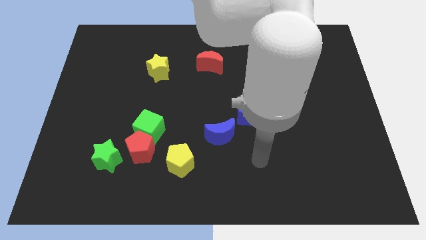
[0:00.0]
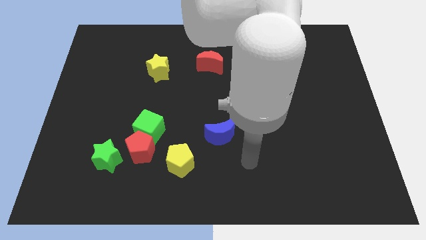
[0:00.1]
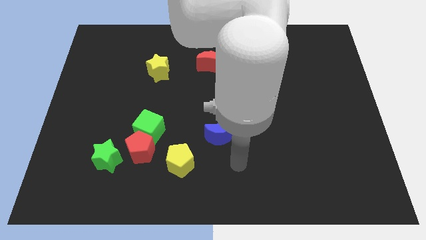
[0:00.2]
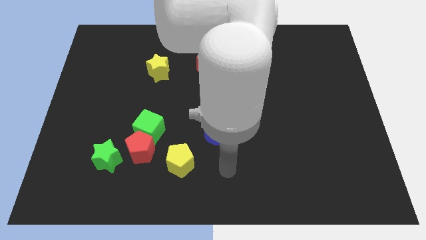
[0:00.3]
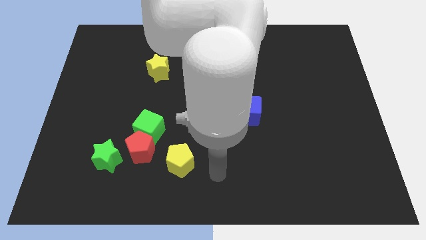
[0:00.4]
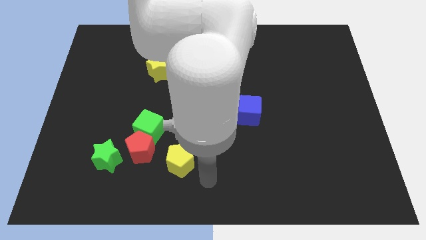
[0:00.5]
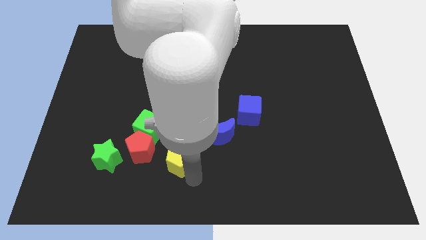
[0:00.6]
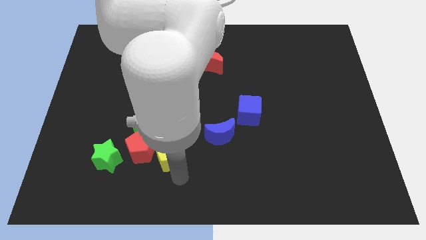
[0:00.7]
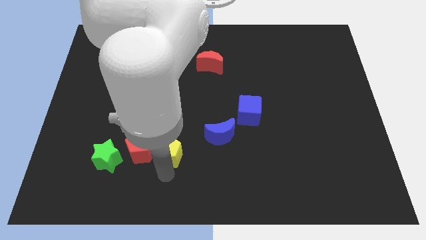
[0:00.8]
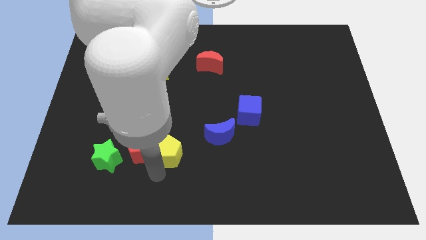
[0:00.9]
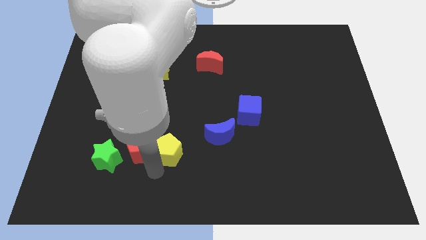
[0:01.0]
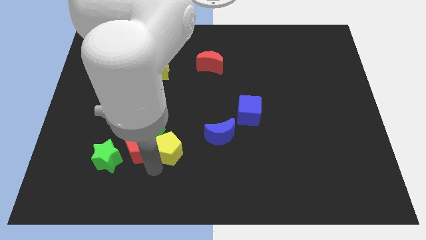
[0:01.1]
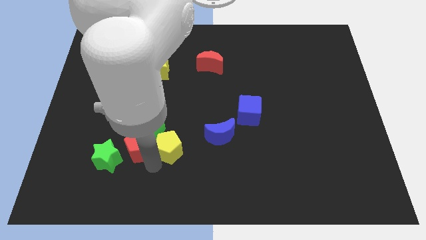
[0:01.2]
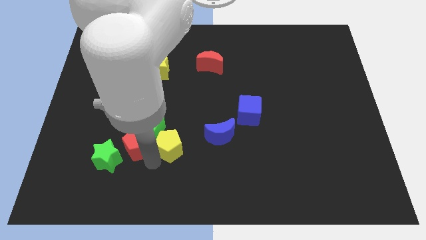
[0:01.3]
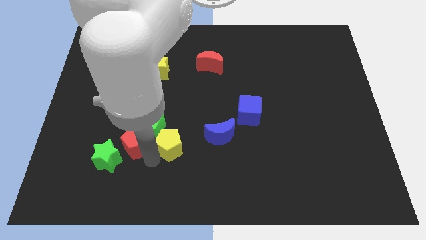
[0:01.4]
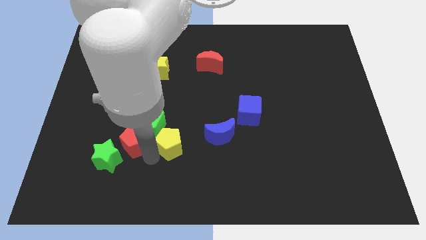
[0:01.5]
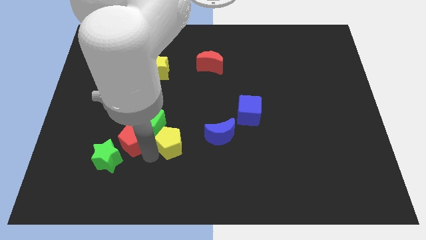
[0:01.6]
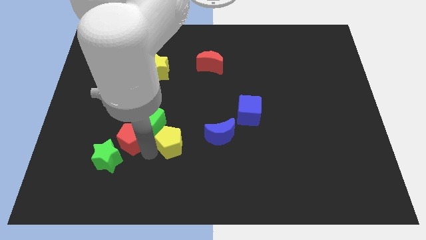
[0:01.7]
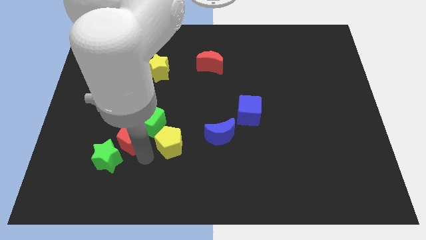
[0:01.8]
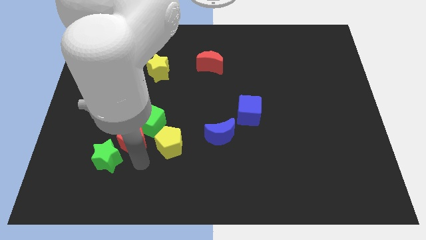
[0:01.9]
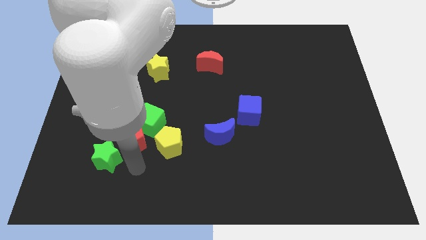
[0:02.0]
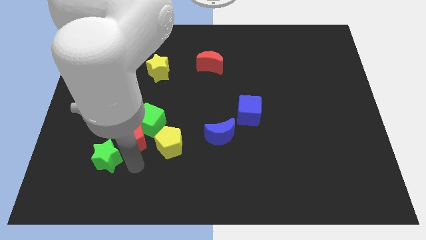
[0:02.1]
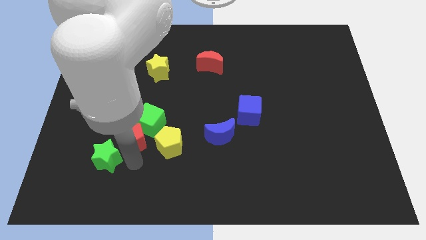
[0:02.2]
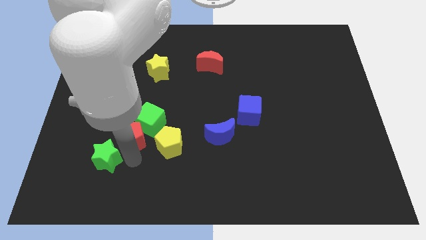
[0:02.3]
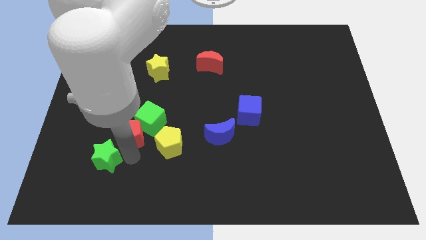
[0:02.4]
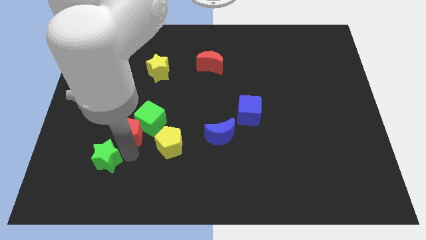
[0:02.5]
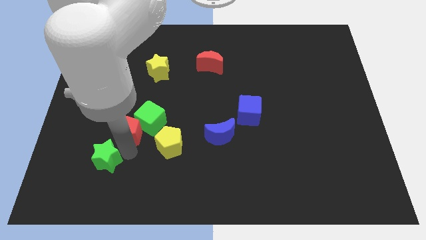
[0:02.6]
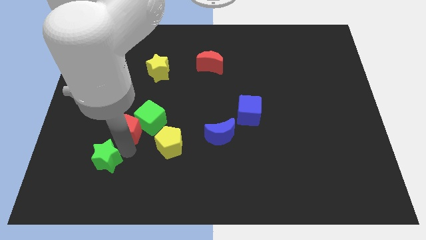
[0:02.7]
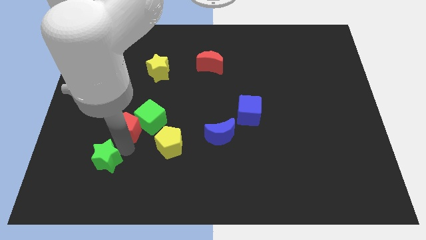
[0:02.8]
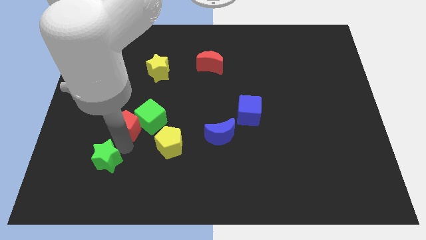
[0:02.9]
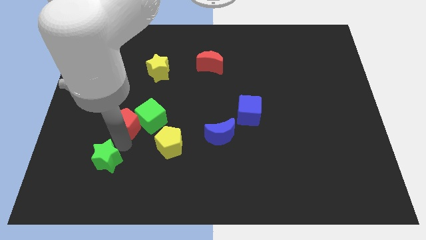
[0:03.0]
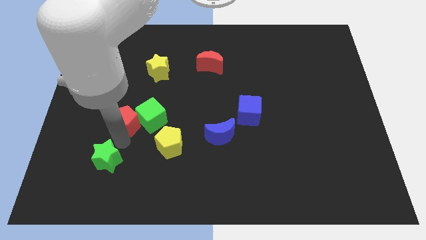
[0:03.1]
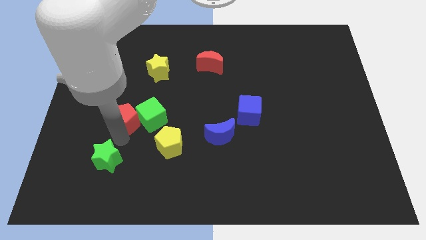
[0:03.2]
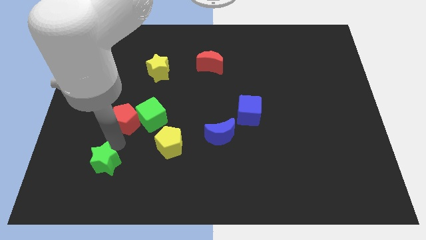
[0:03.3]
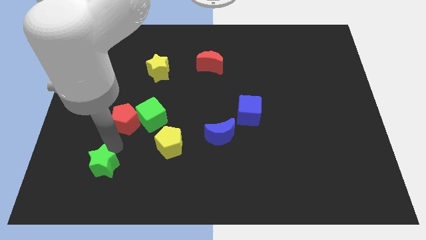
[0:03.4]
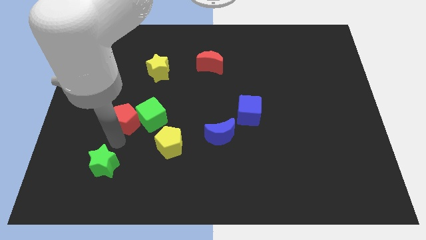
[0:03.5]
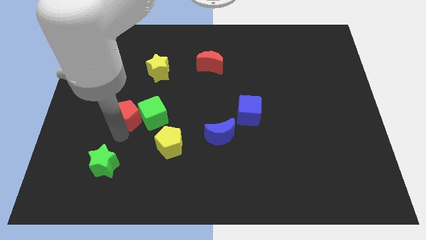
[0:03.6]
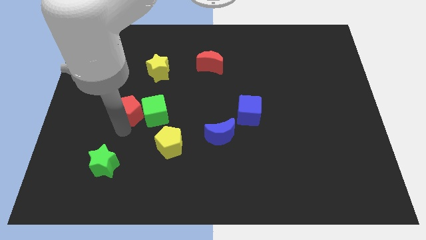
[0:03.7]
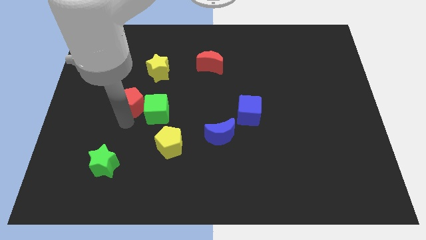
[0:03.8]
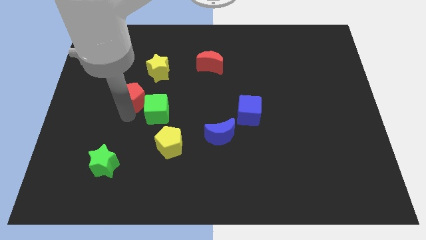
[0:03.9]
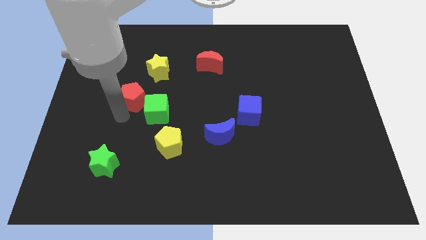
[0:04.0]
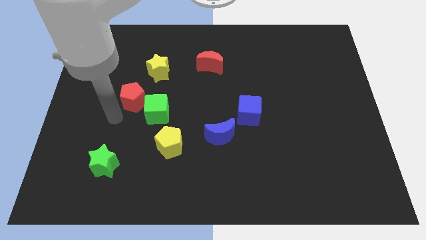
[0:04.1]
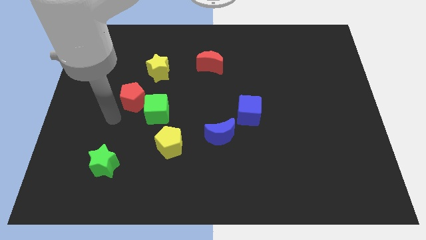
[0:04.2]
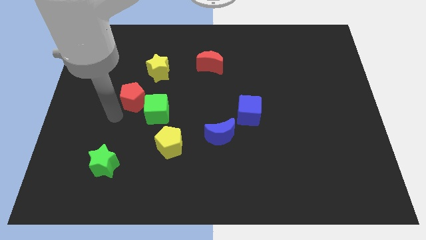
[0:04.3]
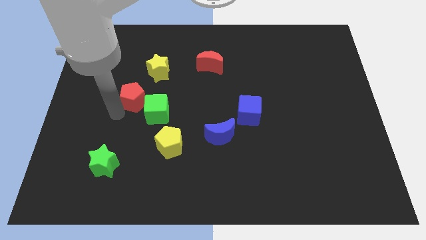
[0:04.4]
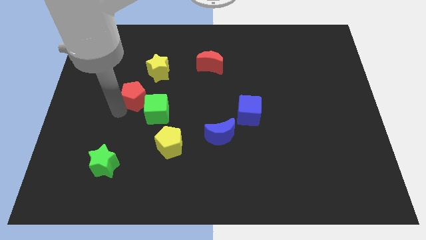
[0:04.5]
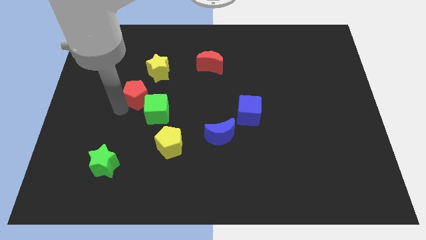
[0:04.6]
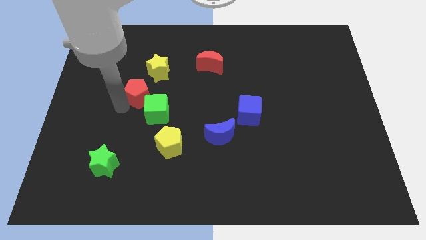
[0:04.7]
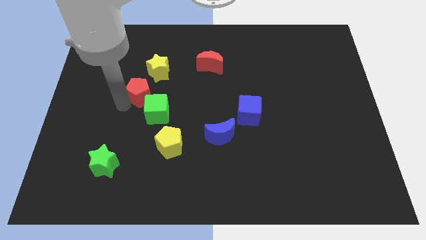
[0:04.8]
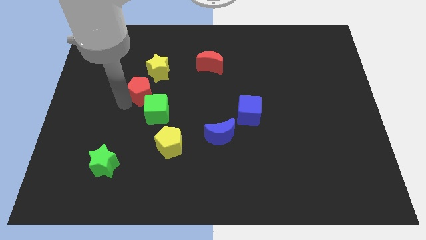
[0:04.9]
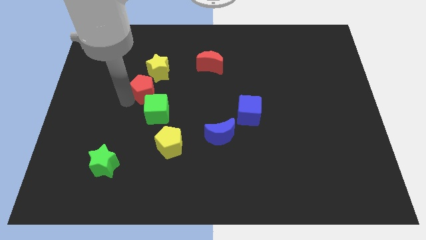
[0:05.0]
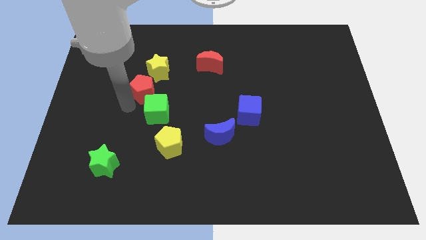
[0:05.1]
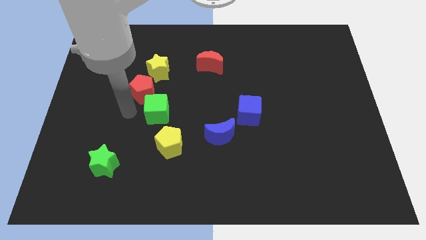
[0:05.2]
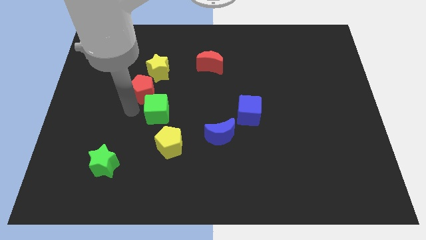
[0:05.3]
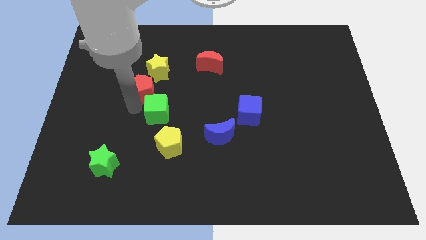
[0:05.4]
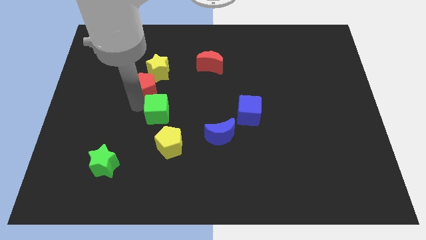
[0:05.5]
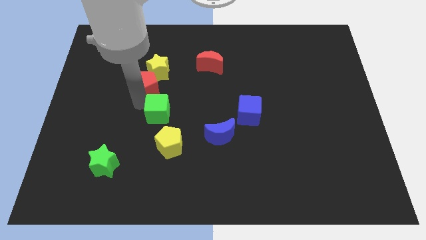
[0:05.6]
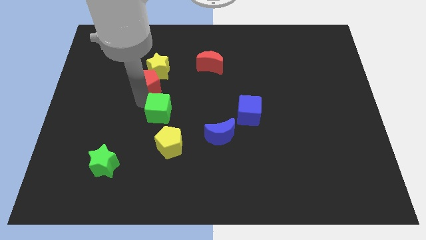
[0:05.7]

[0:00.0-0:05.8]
put the red pentagon close to the yellow star

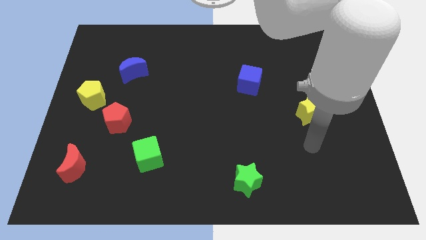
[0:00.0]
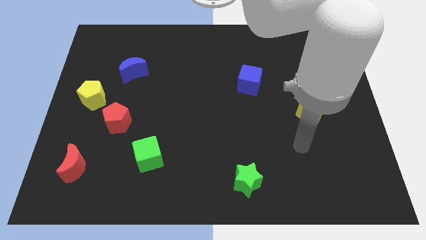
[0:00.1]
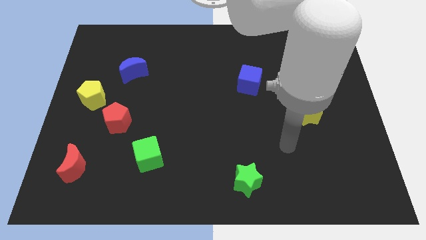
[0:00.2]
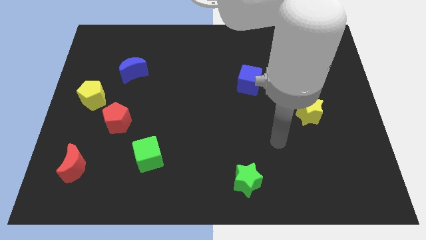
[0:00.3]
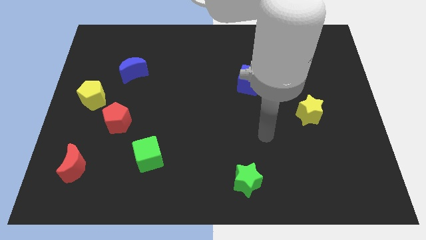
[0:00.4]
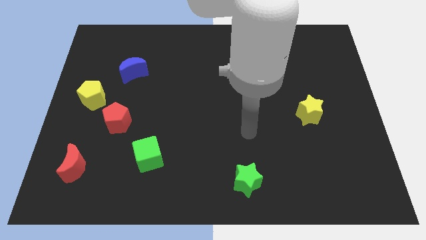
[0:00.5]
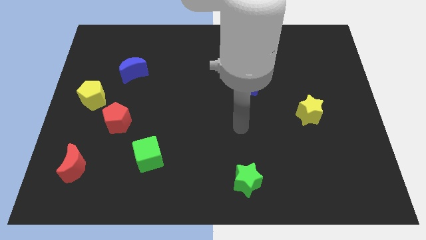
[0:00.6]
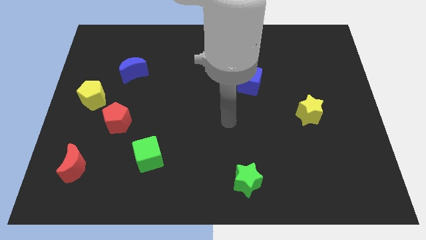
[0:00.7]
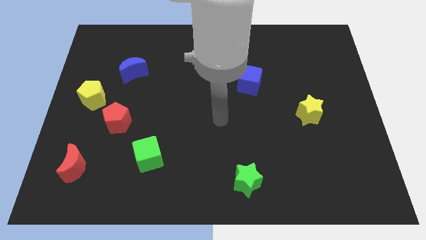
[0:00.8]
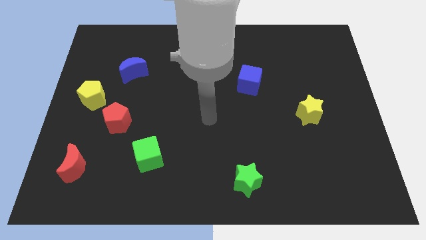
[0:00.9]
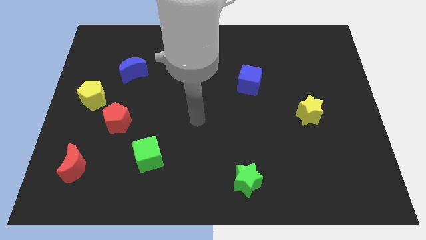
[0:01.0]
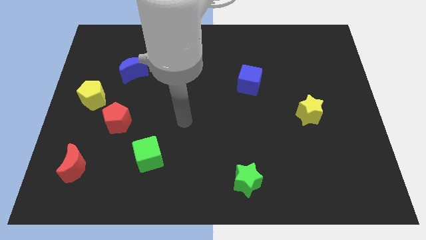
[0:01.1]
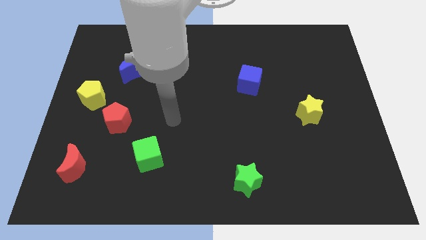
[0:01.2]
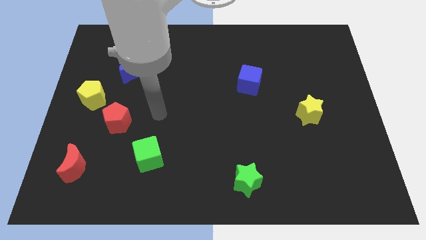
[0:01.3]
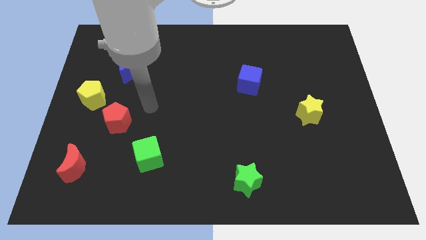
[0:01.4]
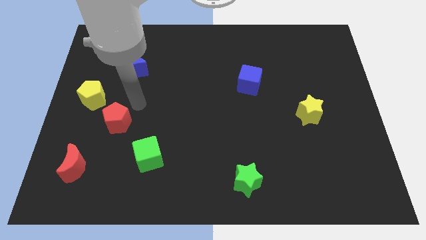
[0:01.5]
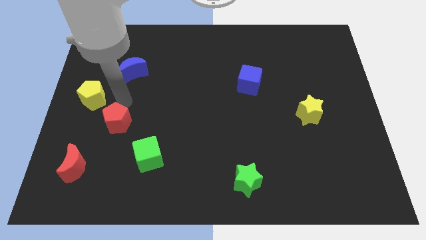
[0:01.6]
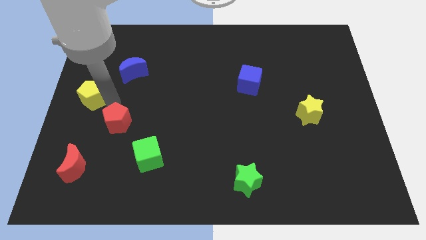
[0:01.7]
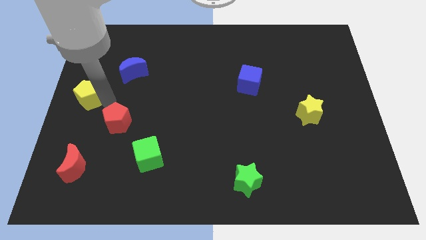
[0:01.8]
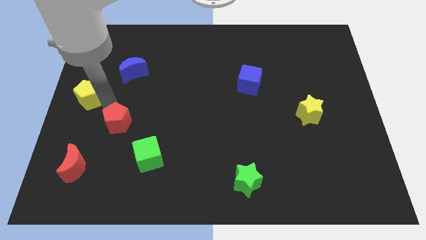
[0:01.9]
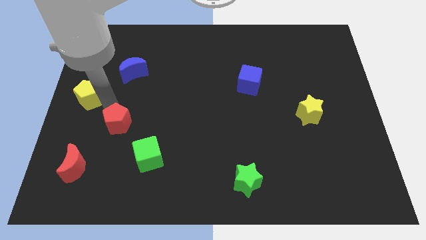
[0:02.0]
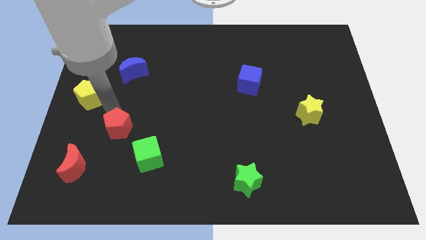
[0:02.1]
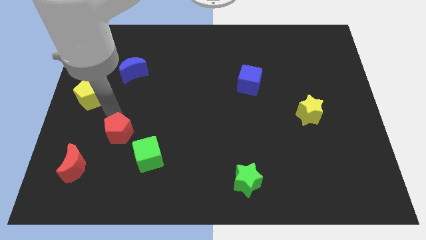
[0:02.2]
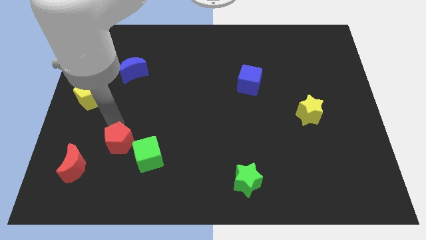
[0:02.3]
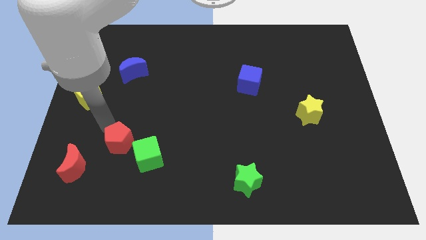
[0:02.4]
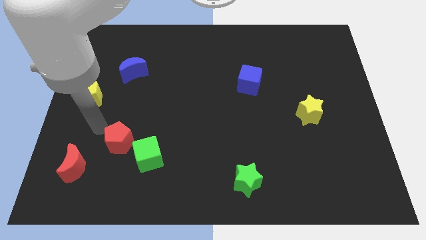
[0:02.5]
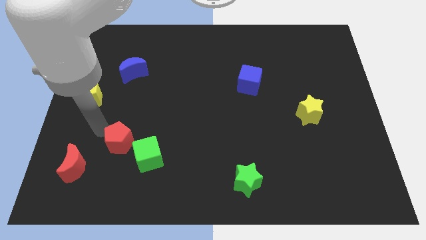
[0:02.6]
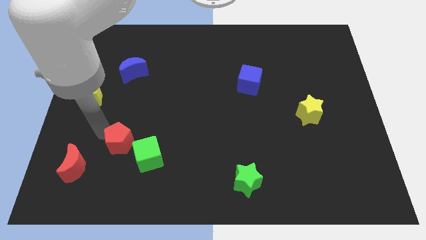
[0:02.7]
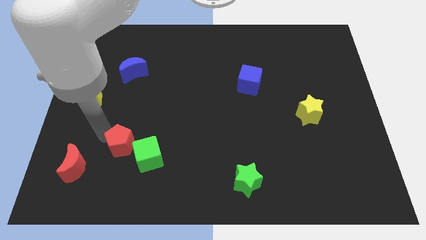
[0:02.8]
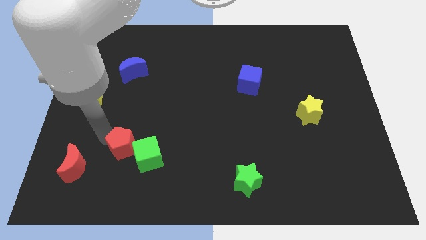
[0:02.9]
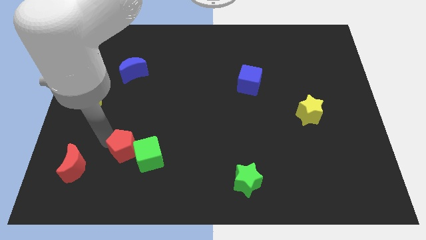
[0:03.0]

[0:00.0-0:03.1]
put the red pentagon towards the green cube
